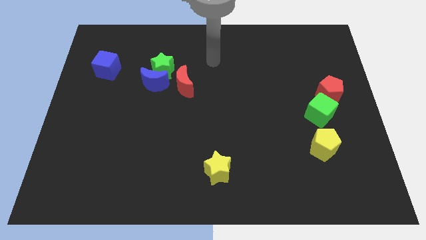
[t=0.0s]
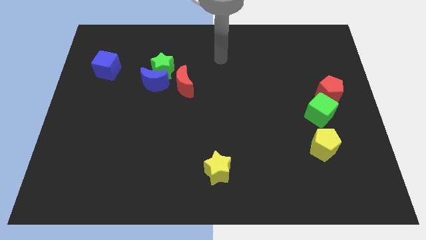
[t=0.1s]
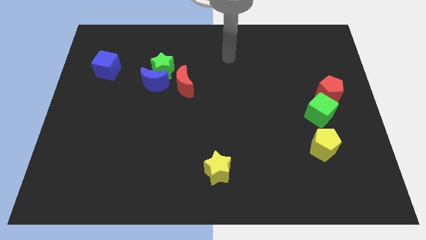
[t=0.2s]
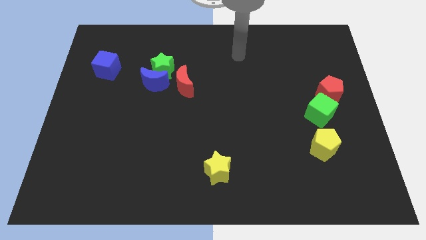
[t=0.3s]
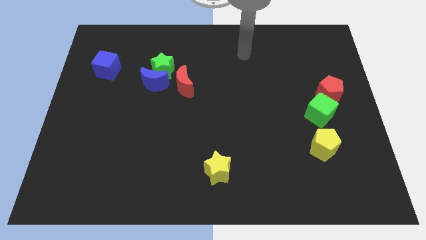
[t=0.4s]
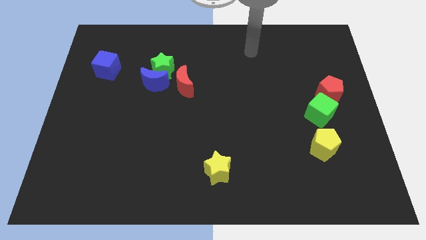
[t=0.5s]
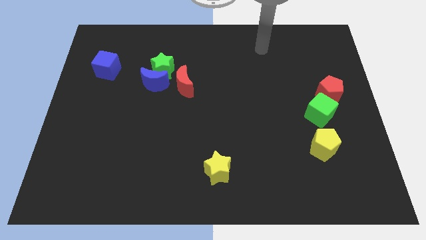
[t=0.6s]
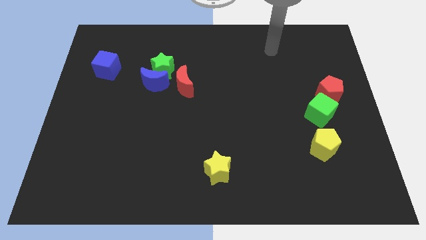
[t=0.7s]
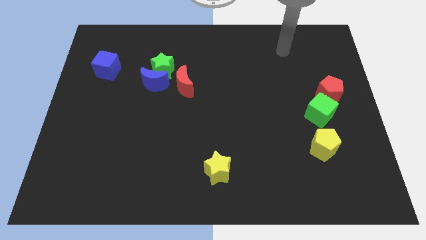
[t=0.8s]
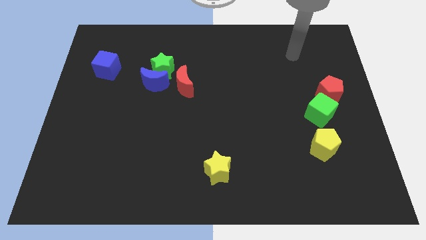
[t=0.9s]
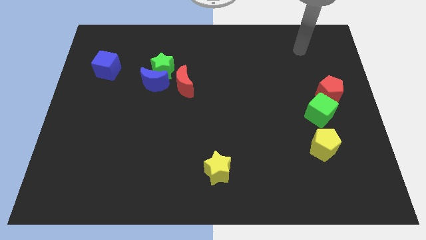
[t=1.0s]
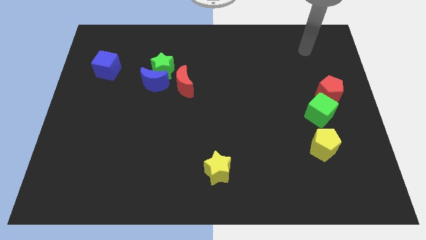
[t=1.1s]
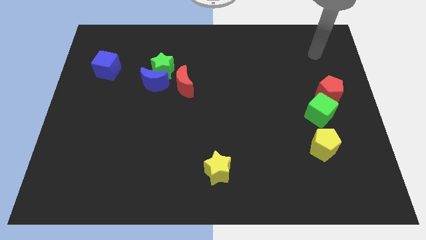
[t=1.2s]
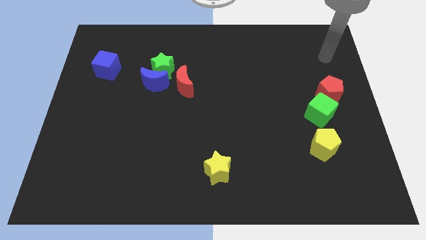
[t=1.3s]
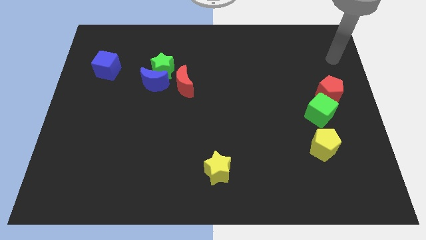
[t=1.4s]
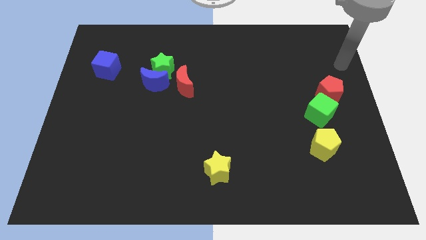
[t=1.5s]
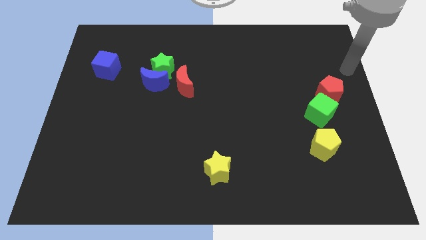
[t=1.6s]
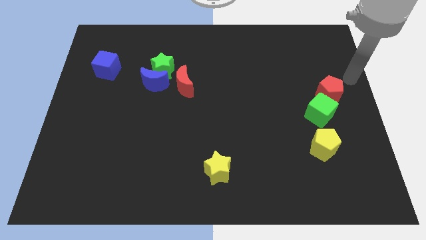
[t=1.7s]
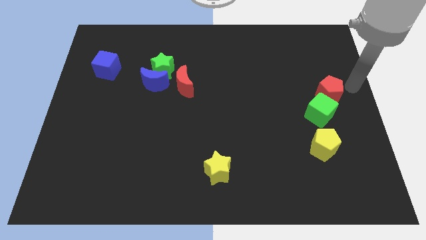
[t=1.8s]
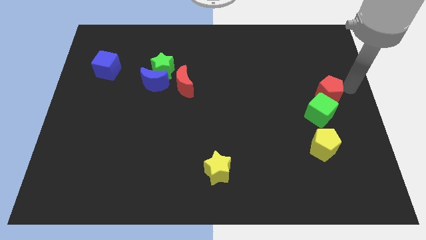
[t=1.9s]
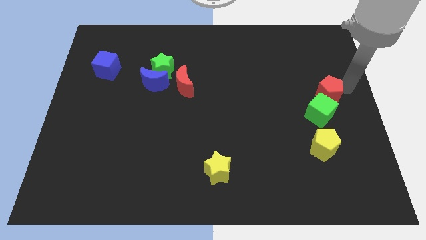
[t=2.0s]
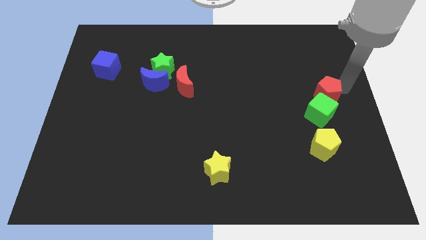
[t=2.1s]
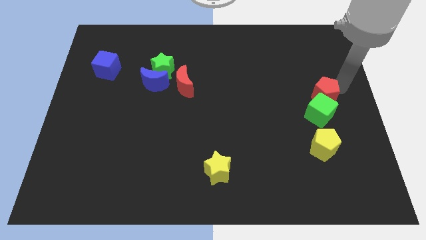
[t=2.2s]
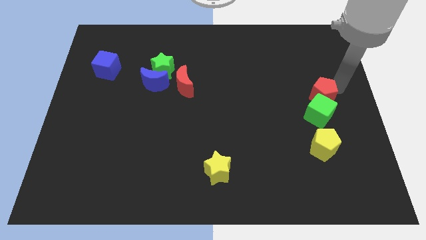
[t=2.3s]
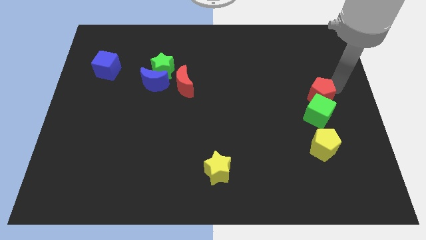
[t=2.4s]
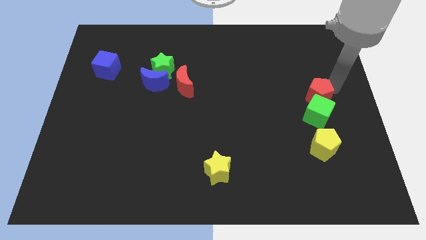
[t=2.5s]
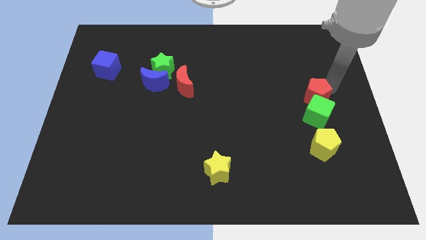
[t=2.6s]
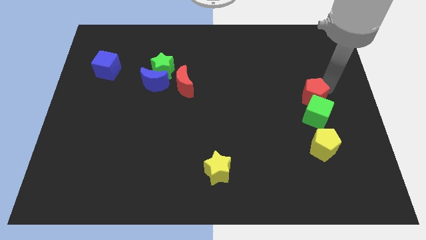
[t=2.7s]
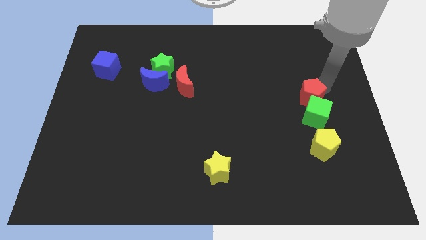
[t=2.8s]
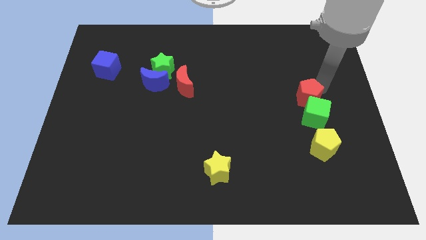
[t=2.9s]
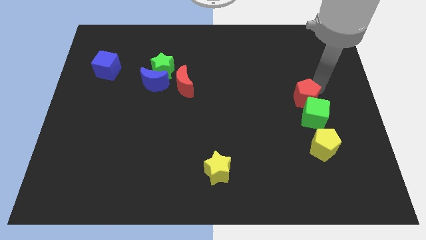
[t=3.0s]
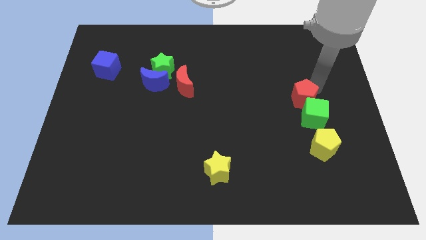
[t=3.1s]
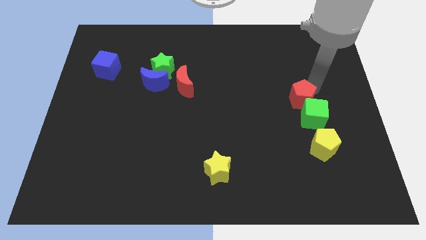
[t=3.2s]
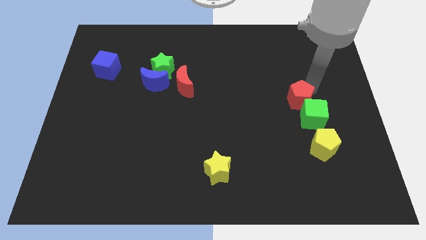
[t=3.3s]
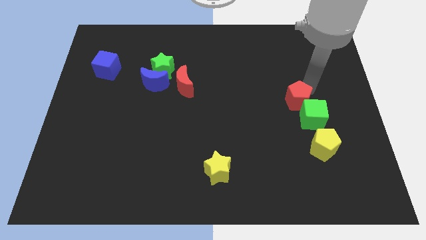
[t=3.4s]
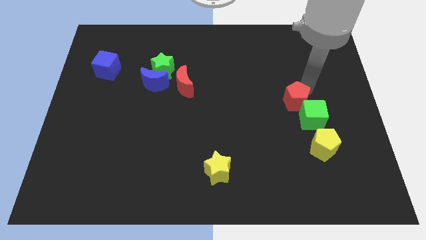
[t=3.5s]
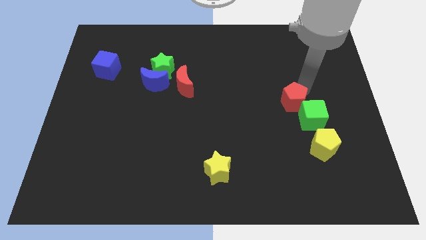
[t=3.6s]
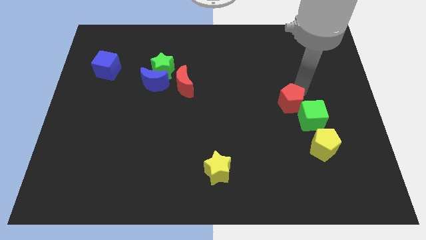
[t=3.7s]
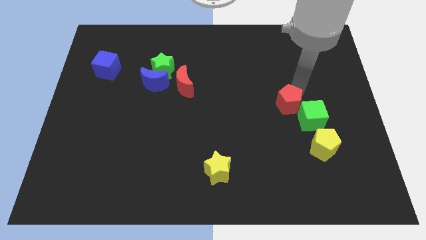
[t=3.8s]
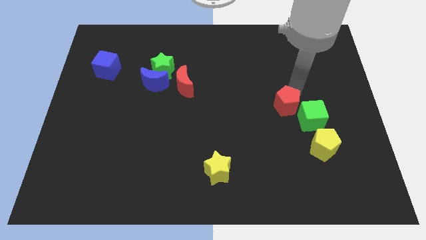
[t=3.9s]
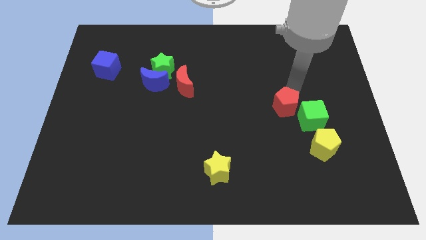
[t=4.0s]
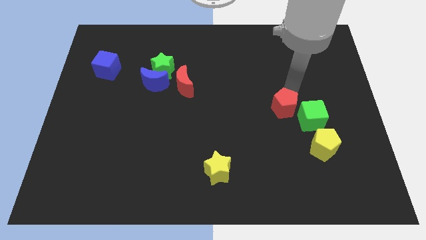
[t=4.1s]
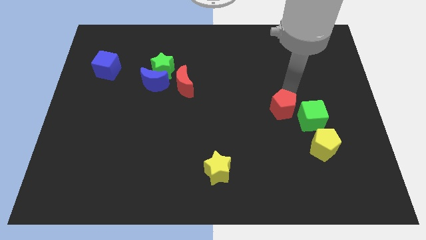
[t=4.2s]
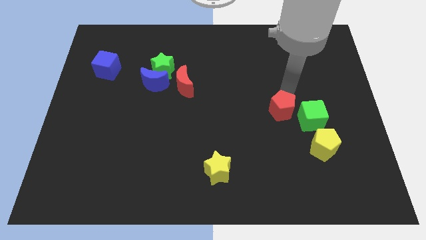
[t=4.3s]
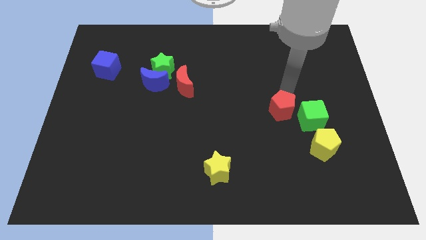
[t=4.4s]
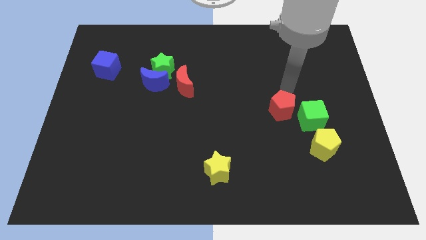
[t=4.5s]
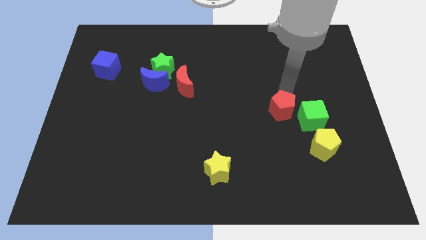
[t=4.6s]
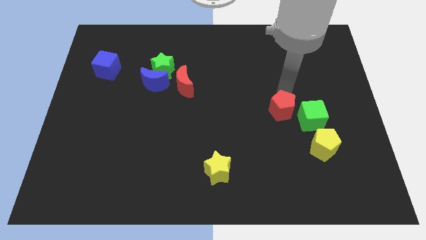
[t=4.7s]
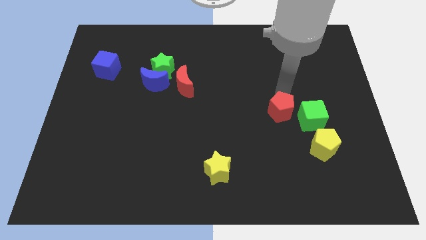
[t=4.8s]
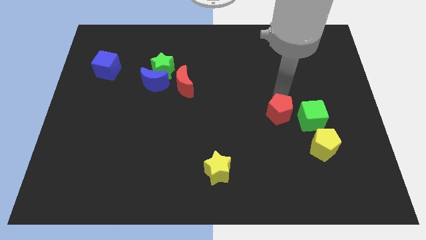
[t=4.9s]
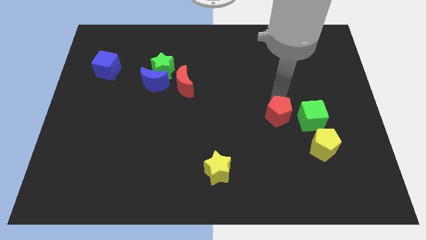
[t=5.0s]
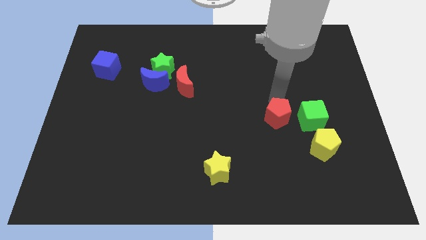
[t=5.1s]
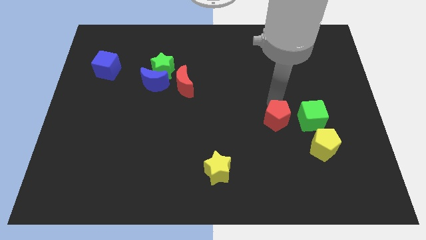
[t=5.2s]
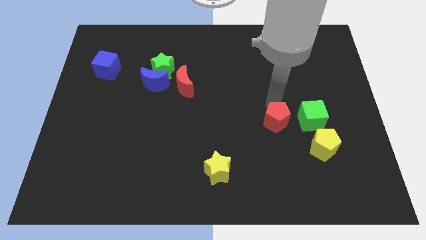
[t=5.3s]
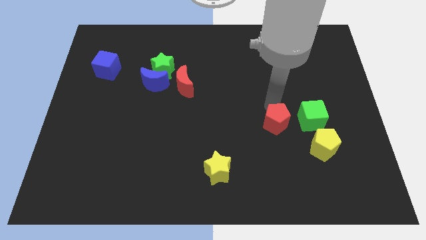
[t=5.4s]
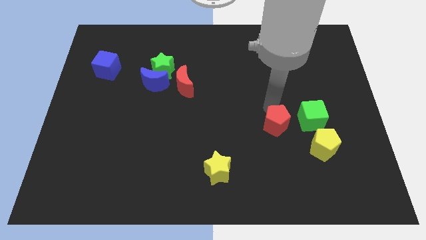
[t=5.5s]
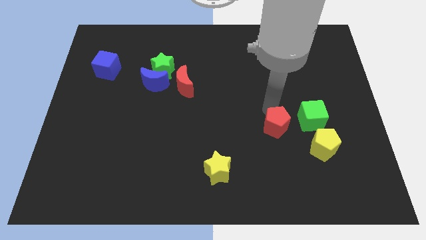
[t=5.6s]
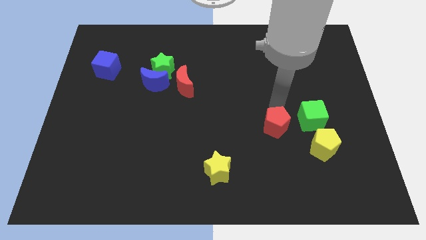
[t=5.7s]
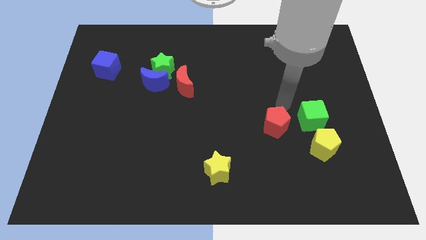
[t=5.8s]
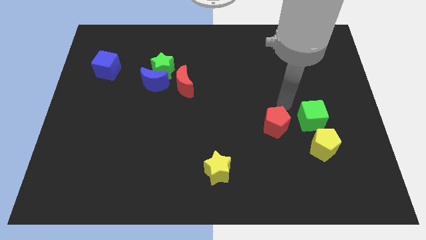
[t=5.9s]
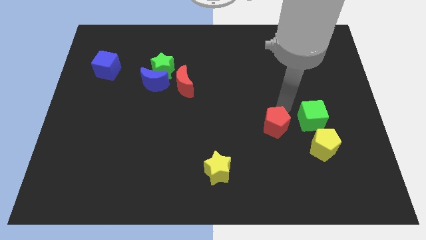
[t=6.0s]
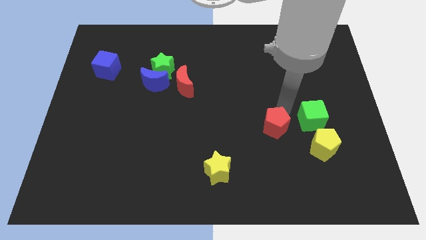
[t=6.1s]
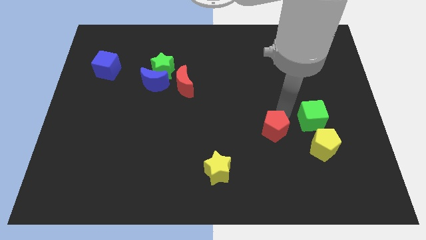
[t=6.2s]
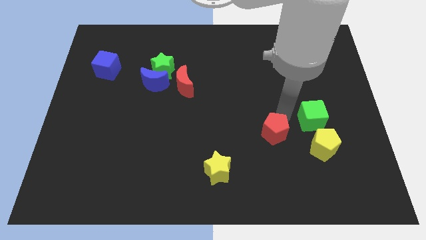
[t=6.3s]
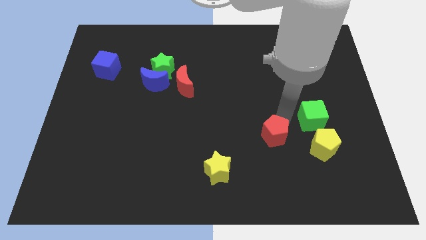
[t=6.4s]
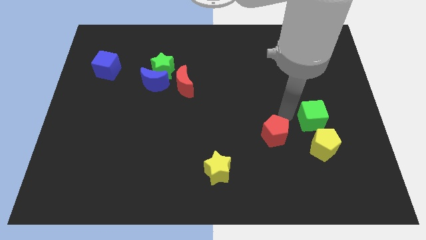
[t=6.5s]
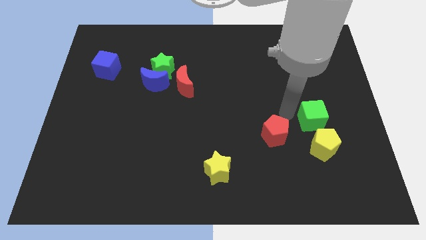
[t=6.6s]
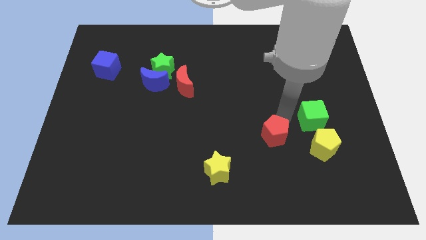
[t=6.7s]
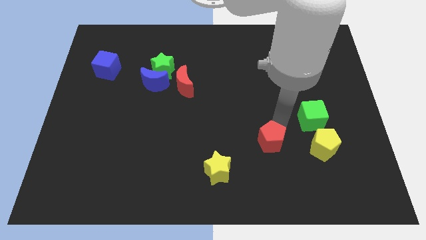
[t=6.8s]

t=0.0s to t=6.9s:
move the red pentagon down and then to the left

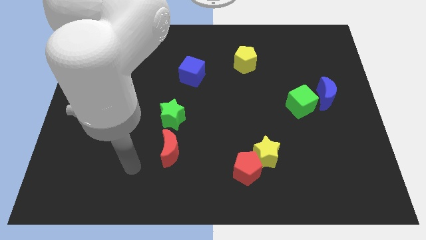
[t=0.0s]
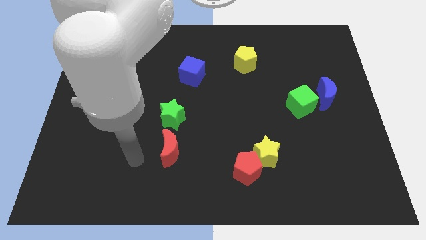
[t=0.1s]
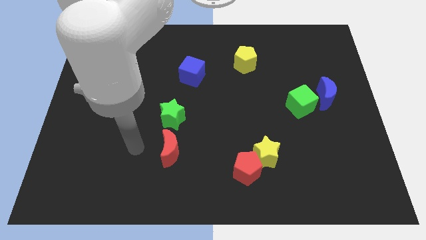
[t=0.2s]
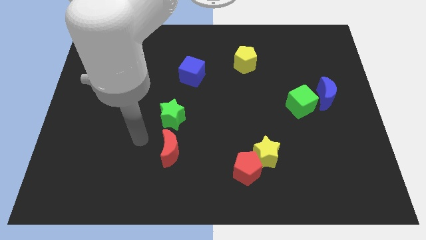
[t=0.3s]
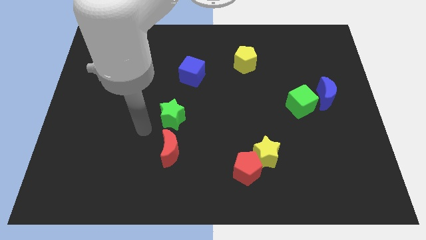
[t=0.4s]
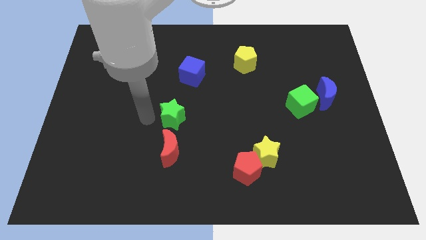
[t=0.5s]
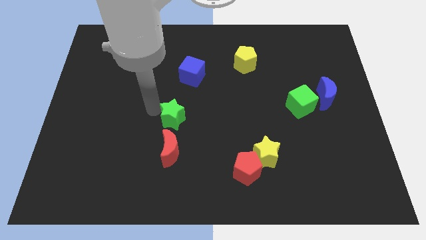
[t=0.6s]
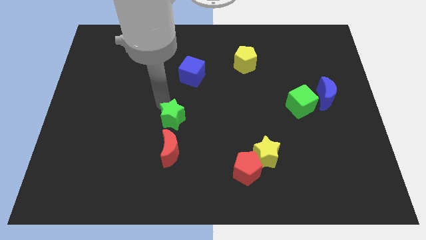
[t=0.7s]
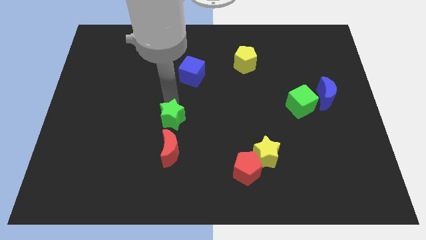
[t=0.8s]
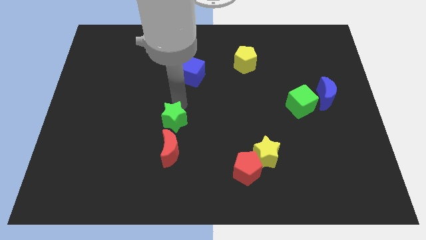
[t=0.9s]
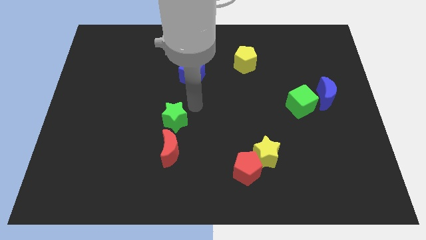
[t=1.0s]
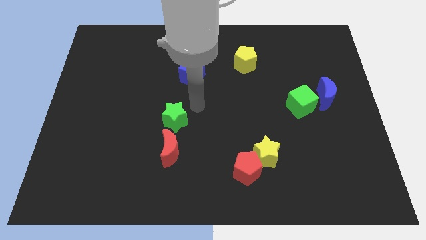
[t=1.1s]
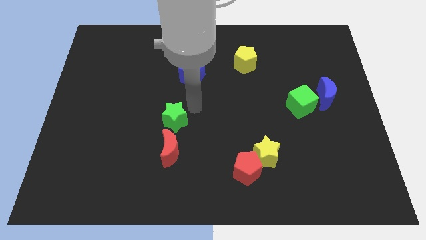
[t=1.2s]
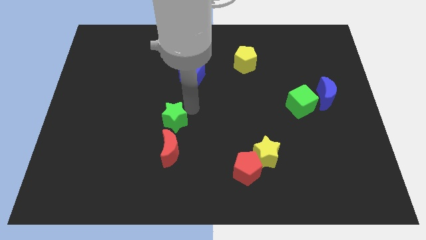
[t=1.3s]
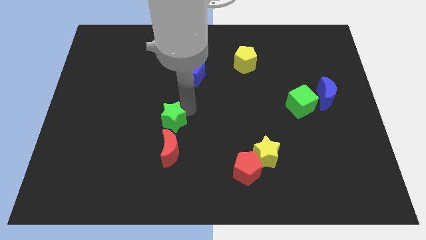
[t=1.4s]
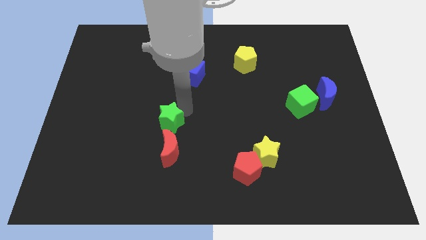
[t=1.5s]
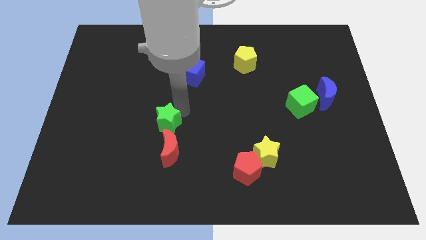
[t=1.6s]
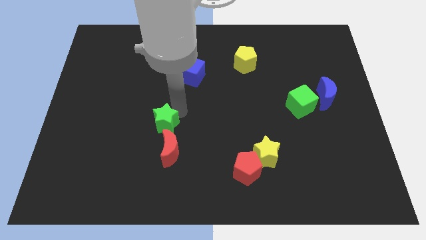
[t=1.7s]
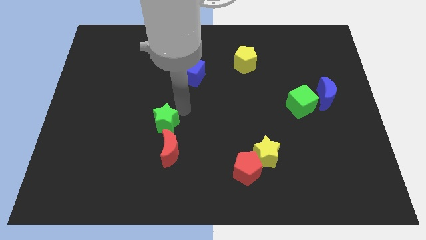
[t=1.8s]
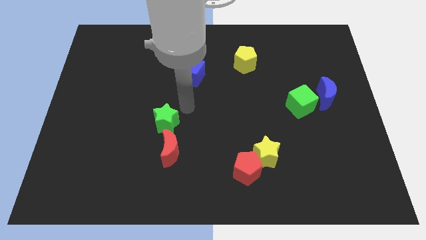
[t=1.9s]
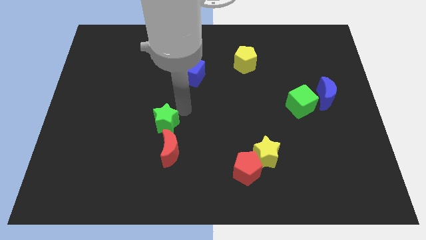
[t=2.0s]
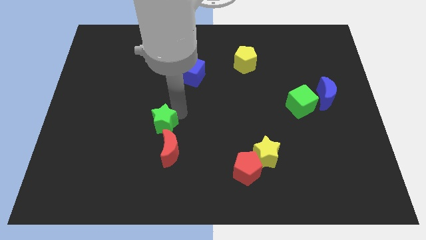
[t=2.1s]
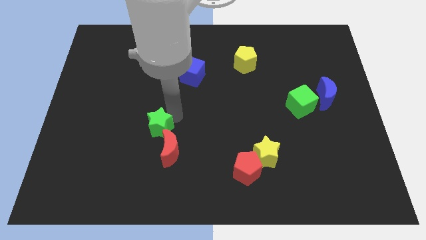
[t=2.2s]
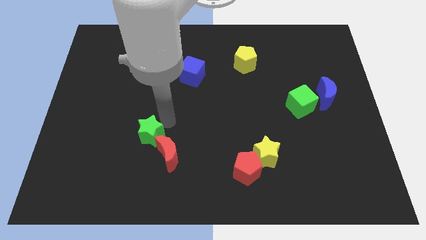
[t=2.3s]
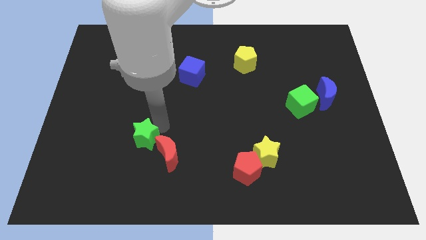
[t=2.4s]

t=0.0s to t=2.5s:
move the green star down and to the left diagonally slightly
